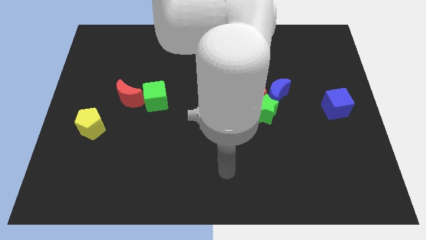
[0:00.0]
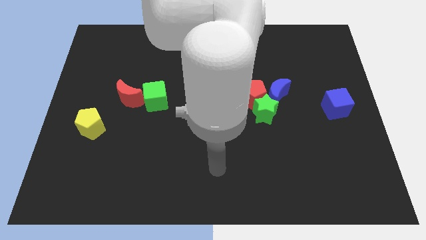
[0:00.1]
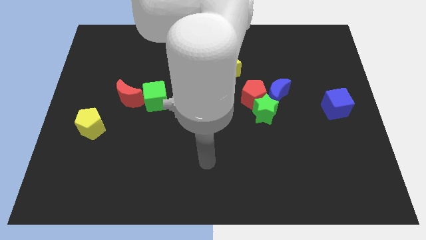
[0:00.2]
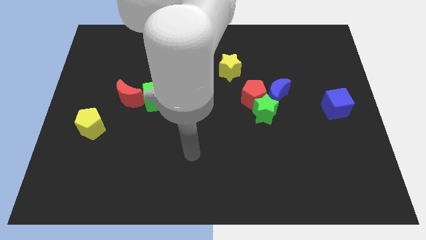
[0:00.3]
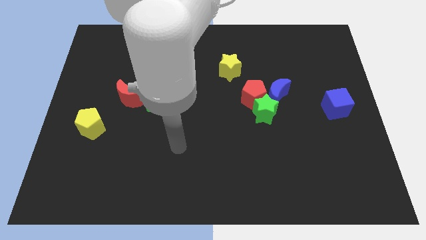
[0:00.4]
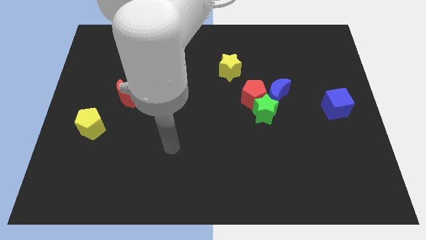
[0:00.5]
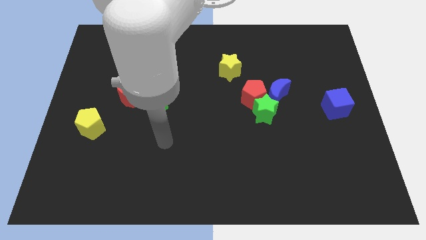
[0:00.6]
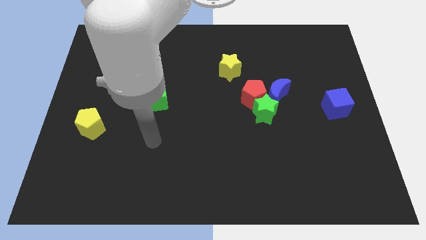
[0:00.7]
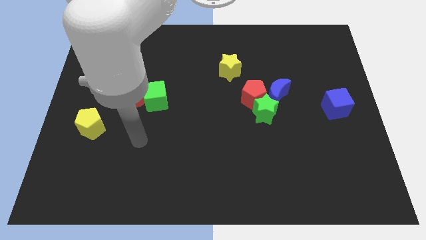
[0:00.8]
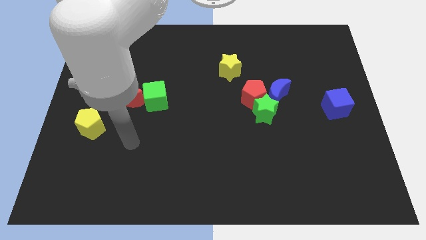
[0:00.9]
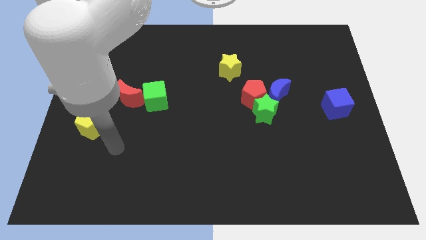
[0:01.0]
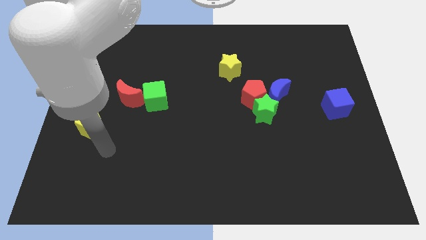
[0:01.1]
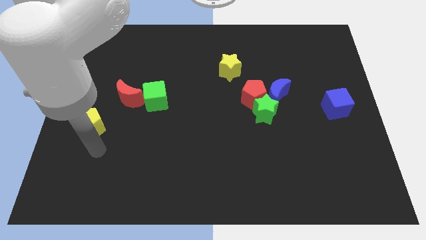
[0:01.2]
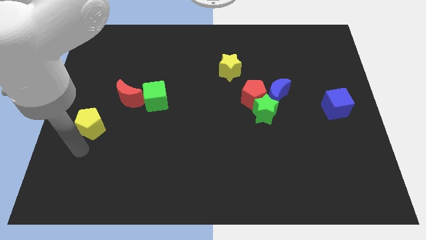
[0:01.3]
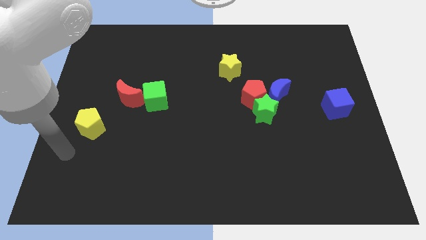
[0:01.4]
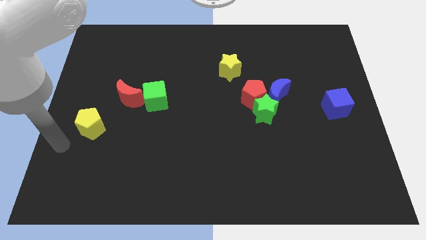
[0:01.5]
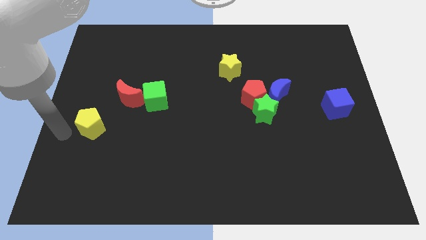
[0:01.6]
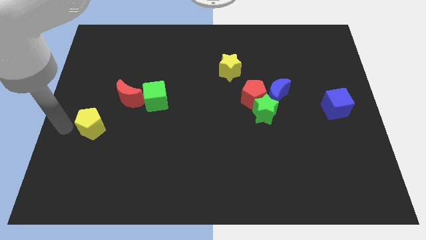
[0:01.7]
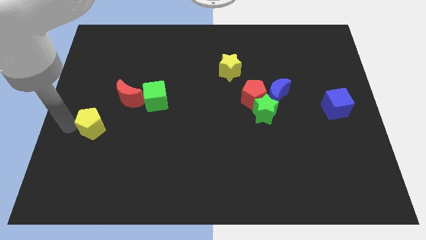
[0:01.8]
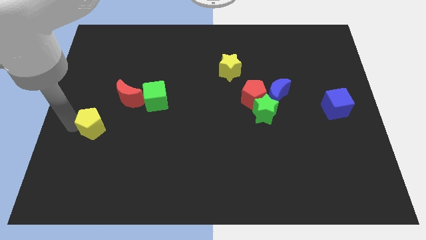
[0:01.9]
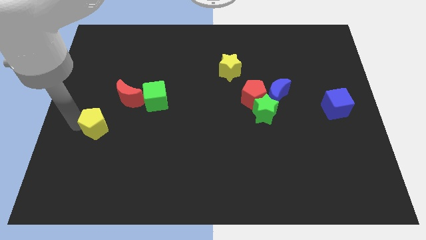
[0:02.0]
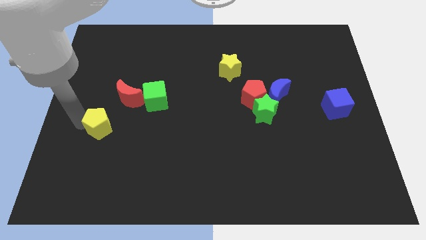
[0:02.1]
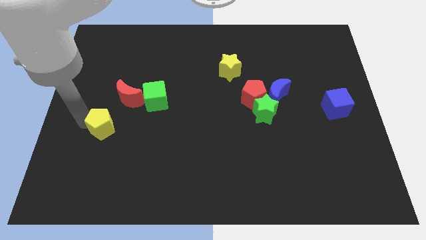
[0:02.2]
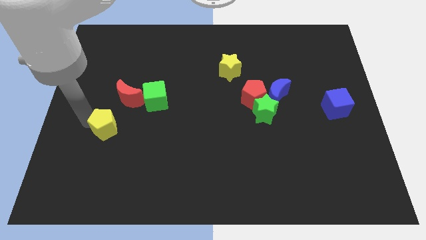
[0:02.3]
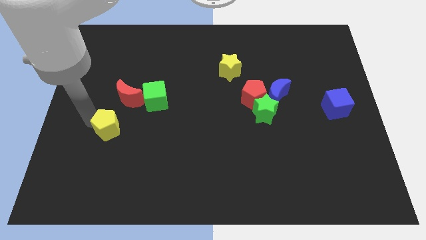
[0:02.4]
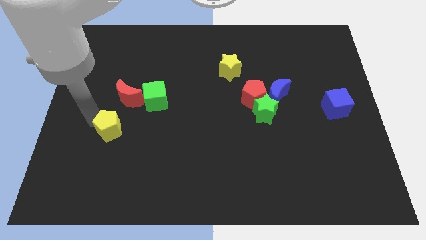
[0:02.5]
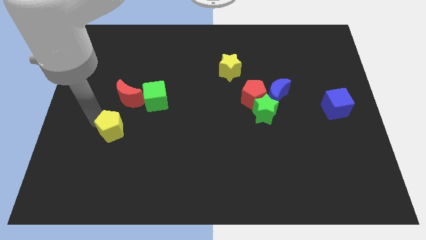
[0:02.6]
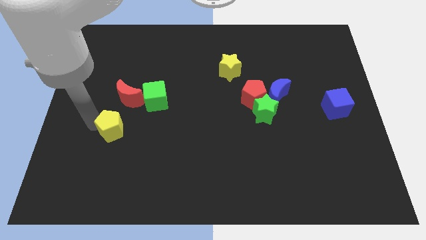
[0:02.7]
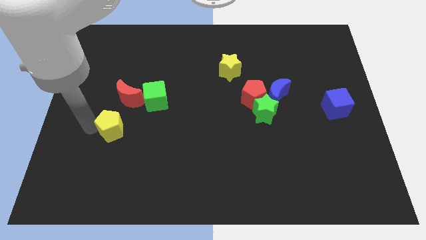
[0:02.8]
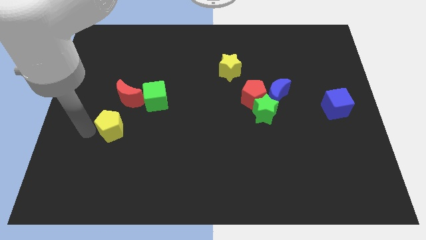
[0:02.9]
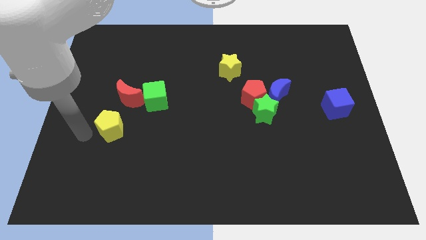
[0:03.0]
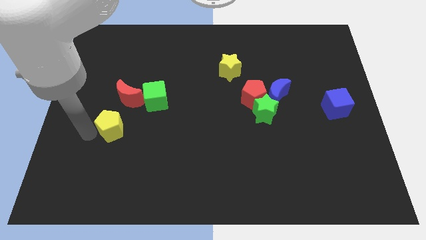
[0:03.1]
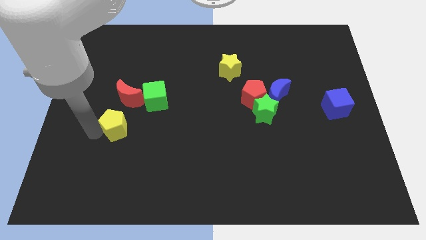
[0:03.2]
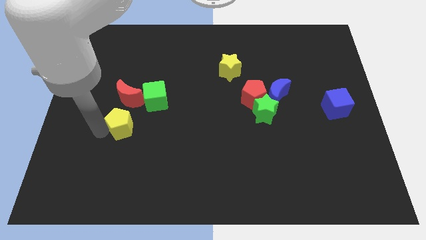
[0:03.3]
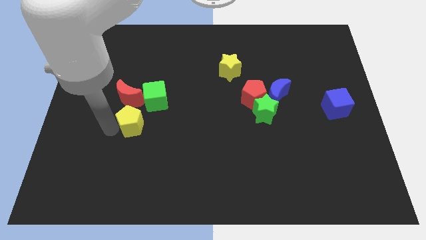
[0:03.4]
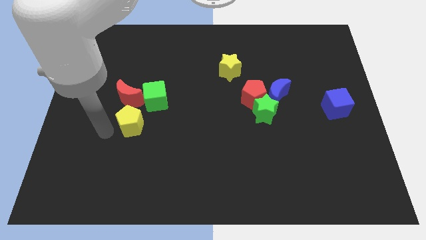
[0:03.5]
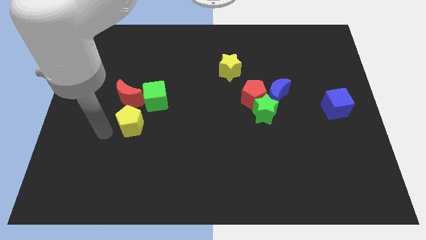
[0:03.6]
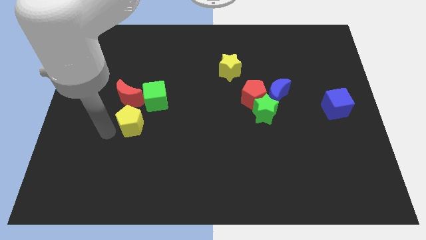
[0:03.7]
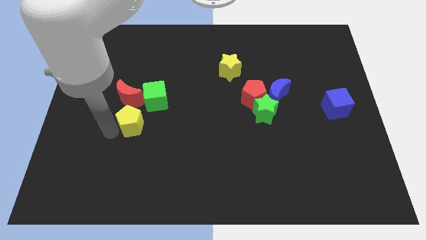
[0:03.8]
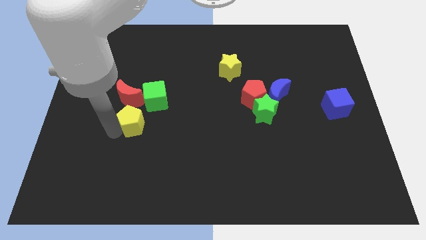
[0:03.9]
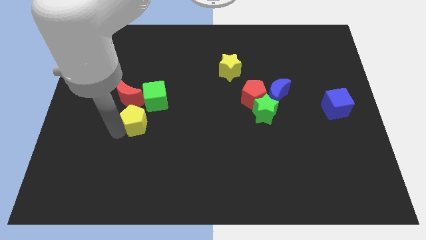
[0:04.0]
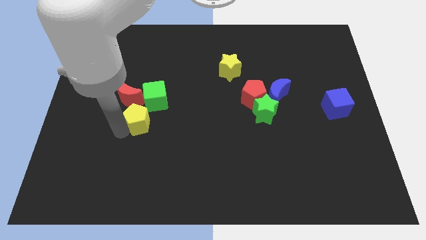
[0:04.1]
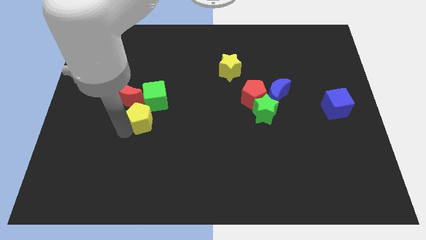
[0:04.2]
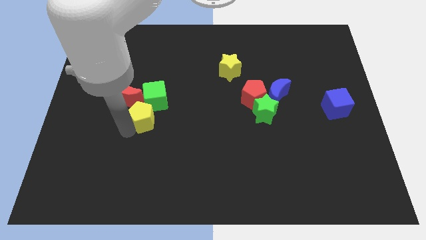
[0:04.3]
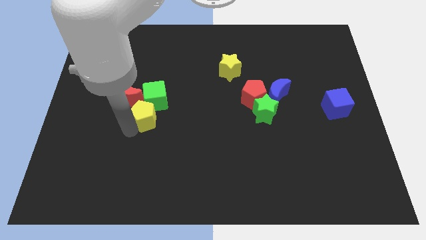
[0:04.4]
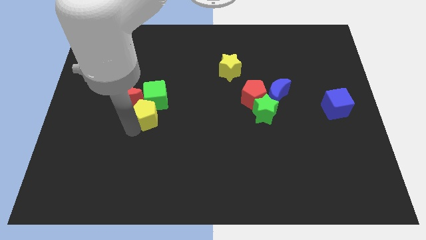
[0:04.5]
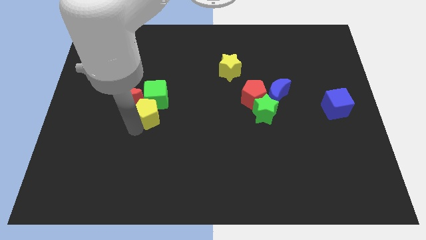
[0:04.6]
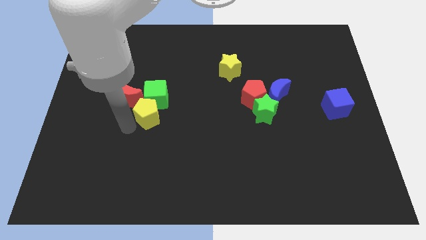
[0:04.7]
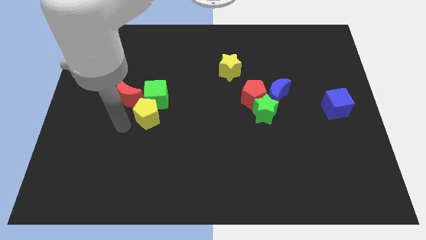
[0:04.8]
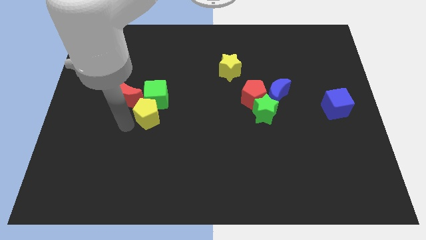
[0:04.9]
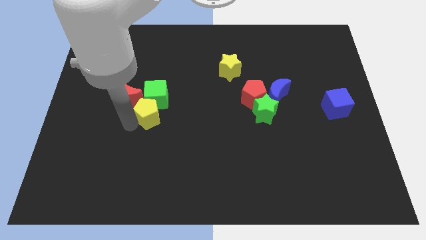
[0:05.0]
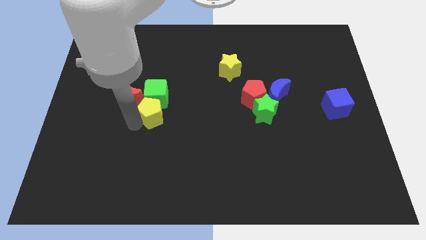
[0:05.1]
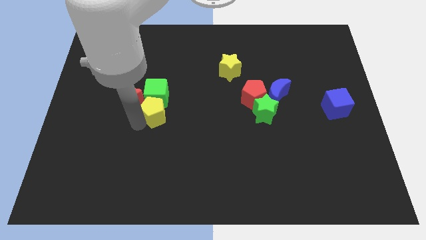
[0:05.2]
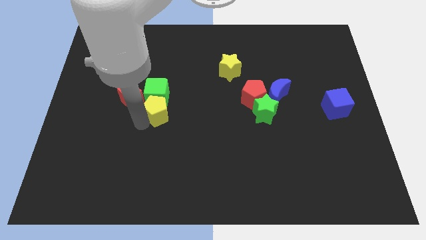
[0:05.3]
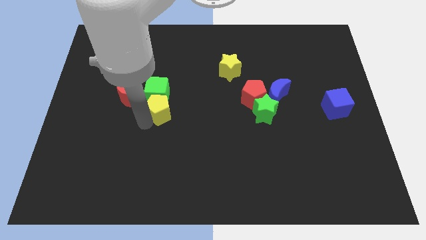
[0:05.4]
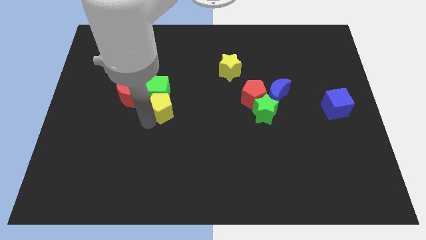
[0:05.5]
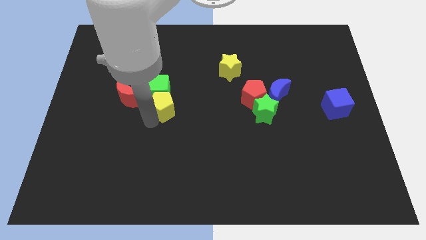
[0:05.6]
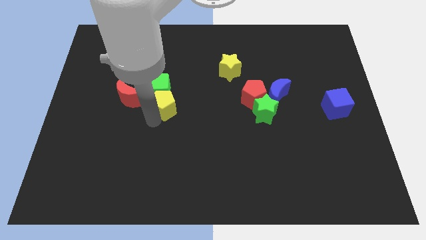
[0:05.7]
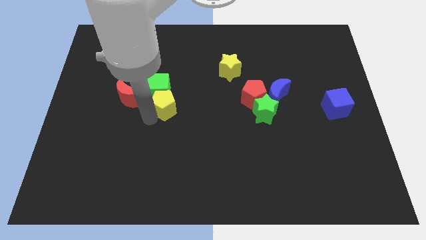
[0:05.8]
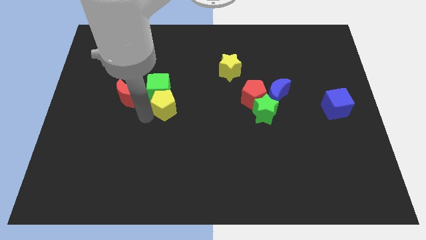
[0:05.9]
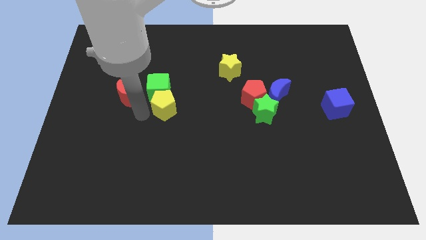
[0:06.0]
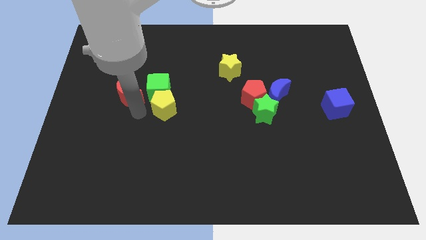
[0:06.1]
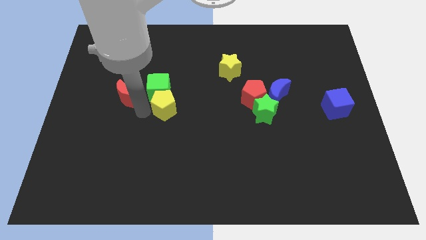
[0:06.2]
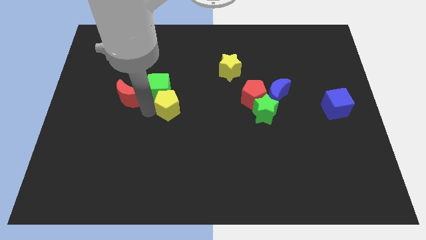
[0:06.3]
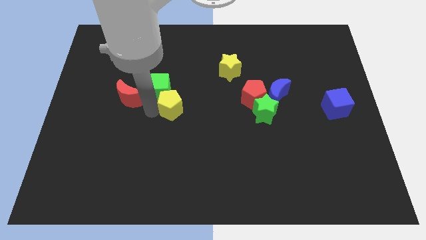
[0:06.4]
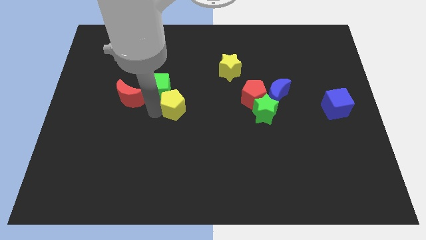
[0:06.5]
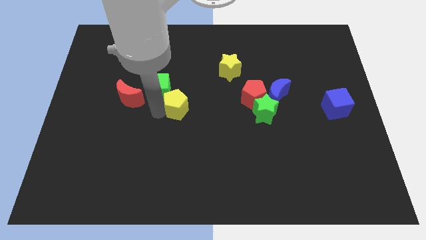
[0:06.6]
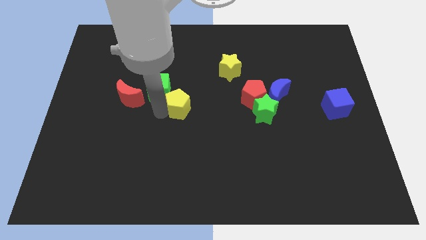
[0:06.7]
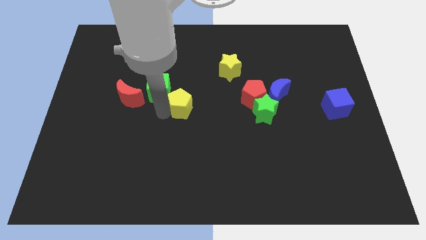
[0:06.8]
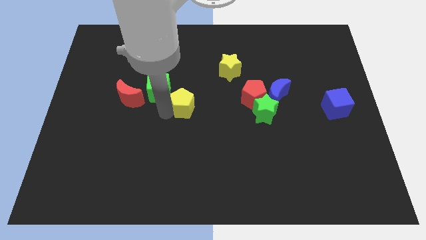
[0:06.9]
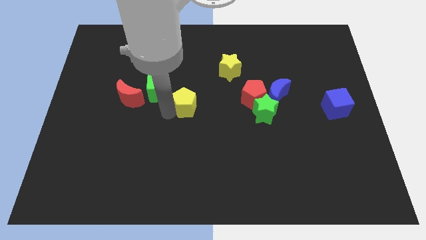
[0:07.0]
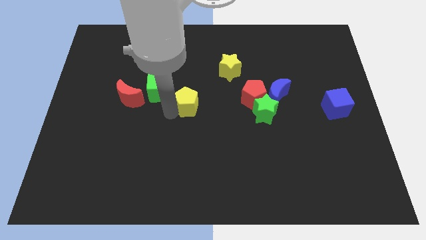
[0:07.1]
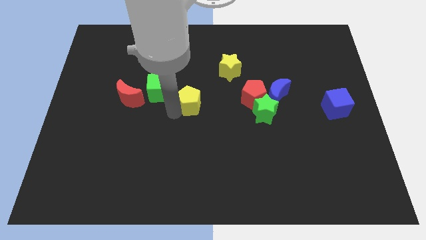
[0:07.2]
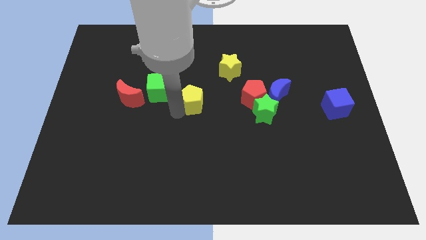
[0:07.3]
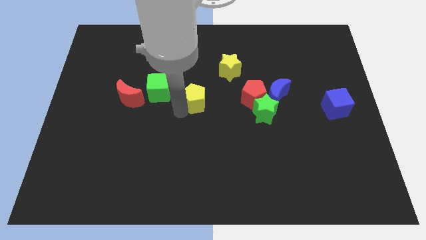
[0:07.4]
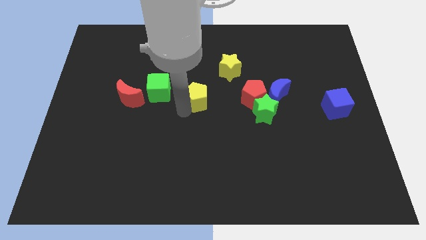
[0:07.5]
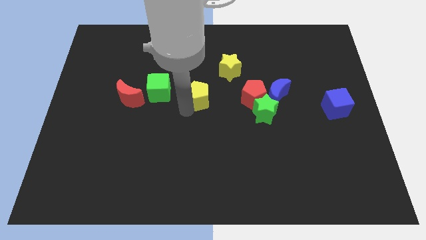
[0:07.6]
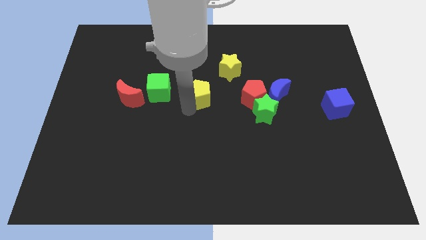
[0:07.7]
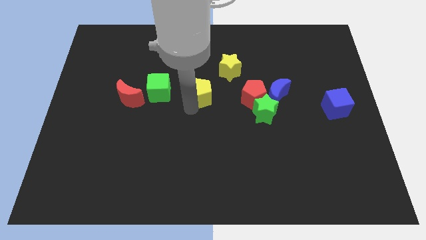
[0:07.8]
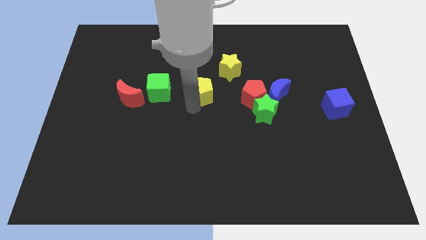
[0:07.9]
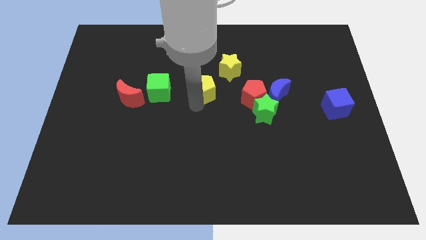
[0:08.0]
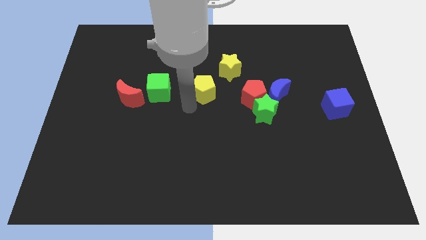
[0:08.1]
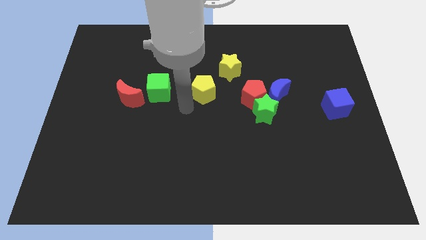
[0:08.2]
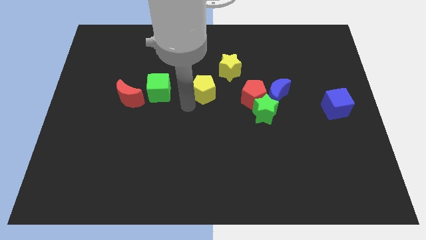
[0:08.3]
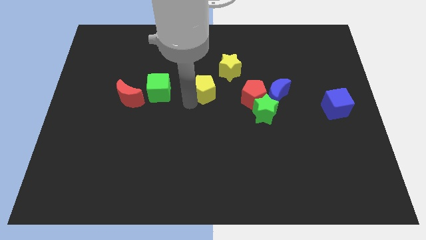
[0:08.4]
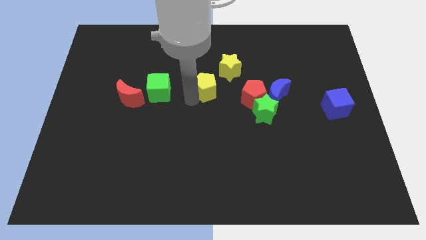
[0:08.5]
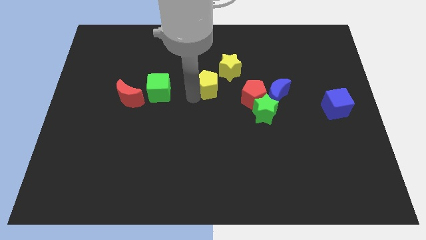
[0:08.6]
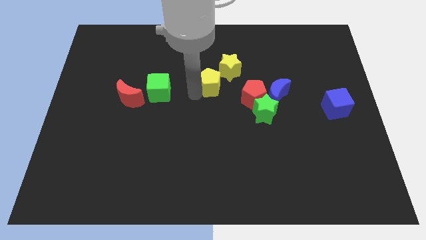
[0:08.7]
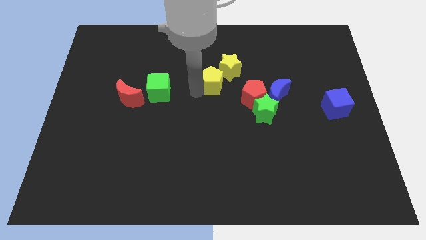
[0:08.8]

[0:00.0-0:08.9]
put the yellow pentagon towards the yellow star
